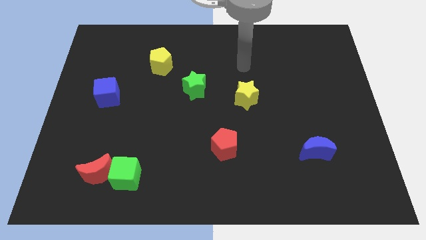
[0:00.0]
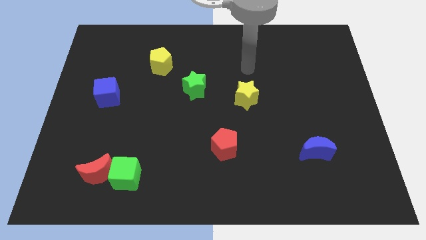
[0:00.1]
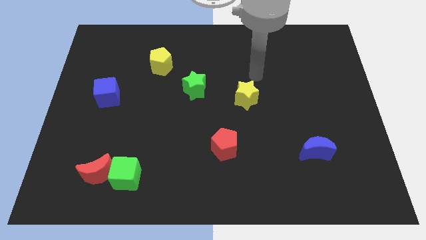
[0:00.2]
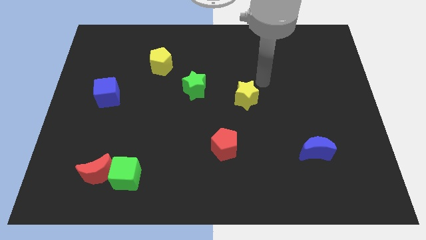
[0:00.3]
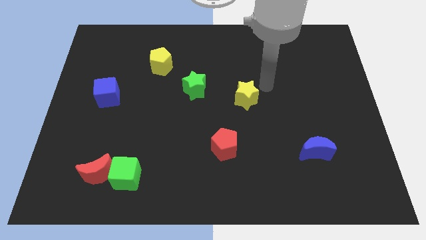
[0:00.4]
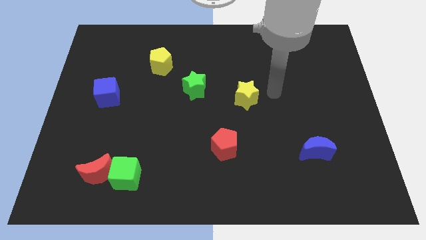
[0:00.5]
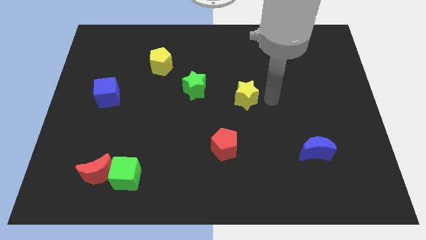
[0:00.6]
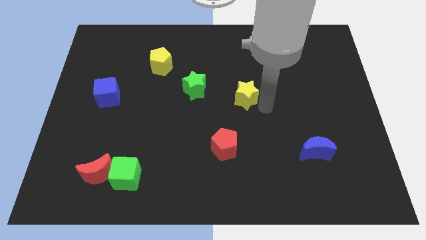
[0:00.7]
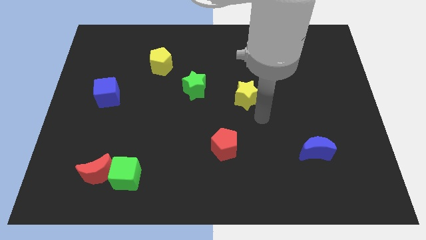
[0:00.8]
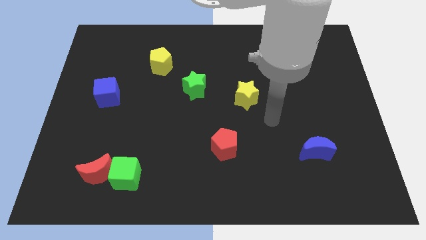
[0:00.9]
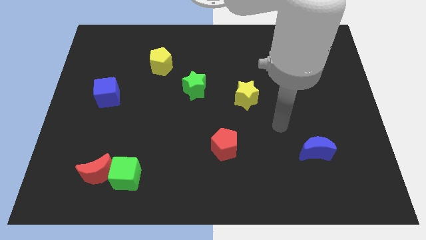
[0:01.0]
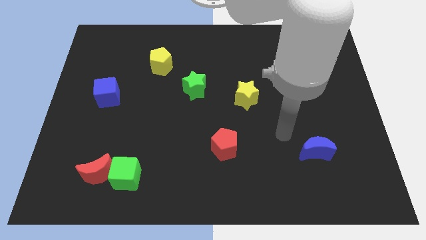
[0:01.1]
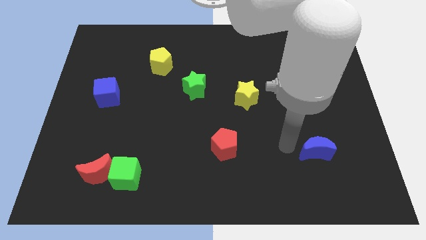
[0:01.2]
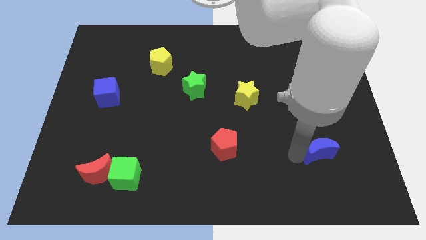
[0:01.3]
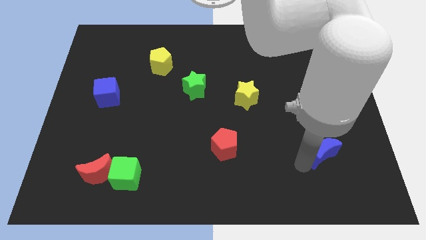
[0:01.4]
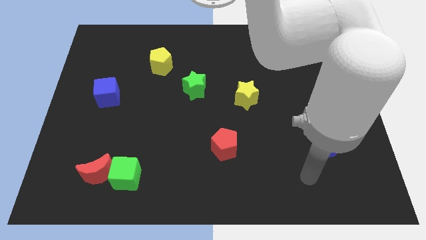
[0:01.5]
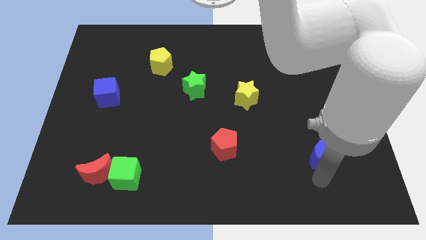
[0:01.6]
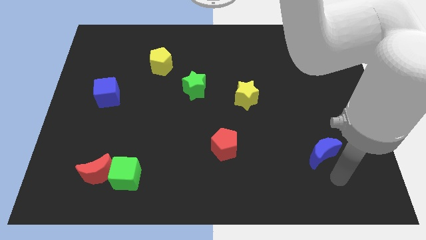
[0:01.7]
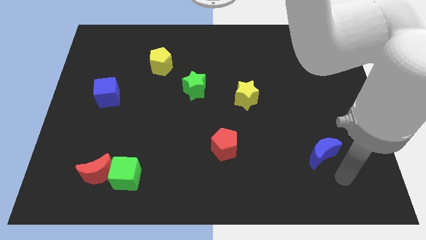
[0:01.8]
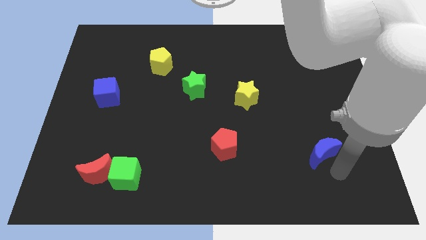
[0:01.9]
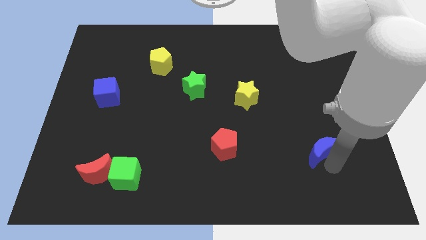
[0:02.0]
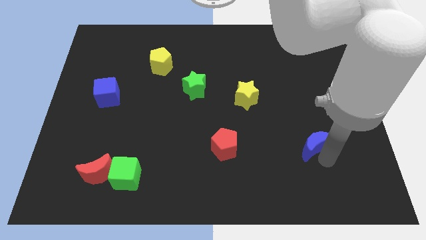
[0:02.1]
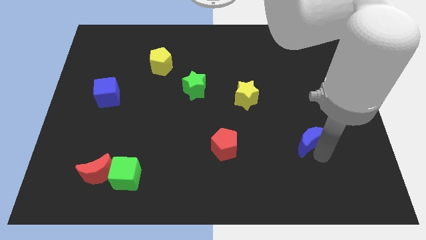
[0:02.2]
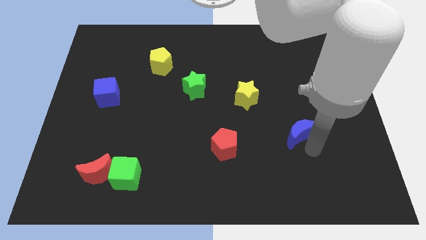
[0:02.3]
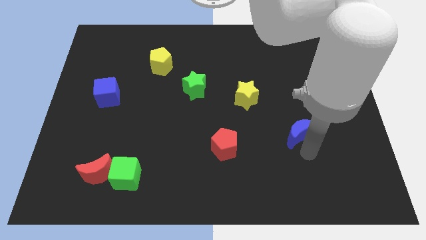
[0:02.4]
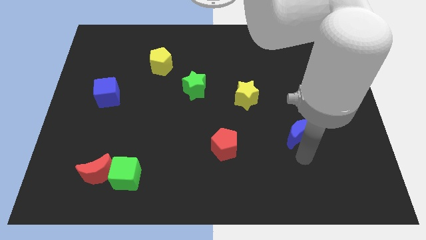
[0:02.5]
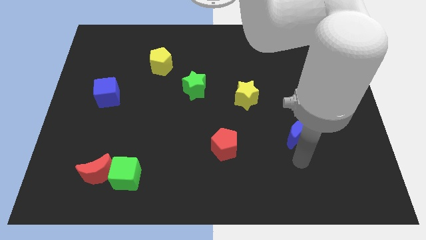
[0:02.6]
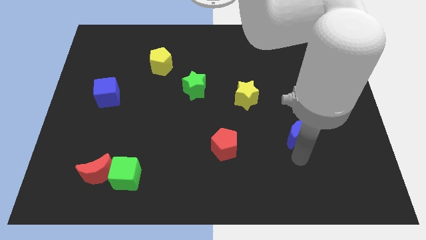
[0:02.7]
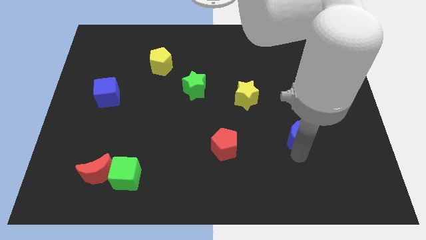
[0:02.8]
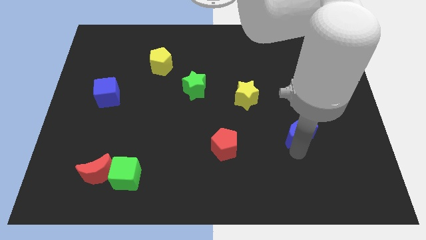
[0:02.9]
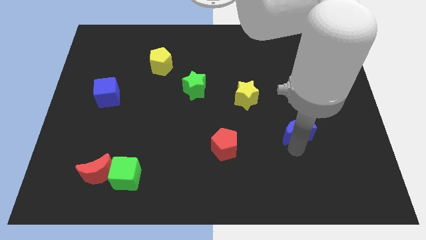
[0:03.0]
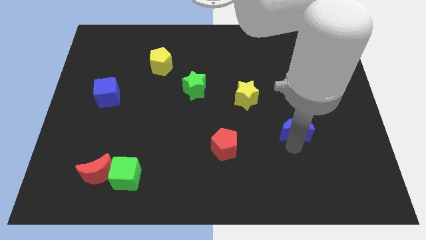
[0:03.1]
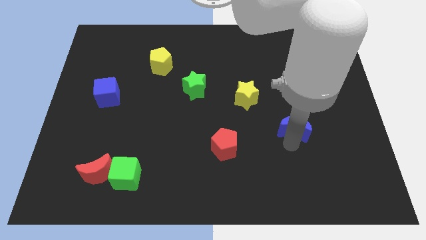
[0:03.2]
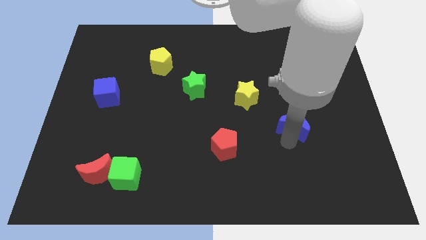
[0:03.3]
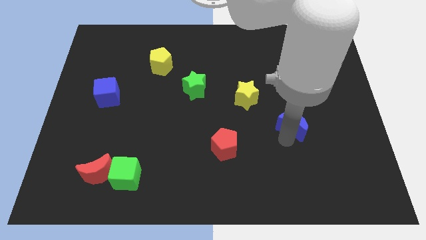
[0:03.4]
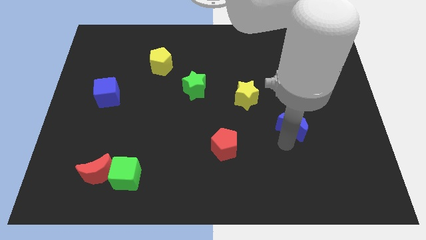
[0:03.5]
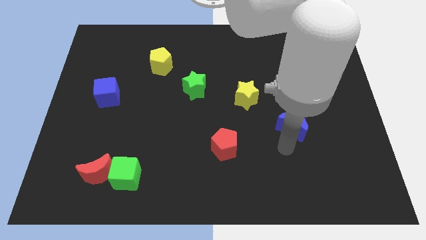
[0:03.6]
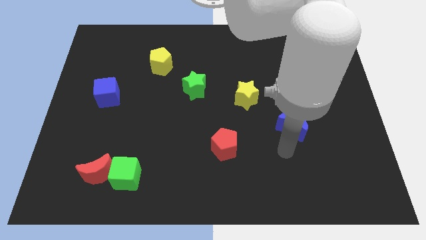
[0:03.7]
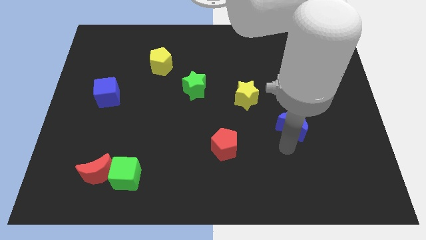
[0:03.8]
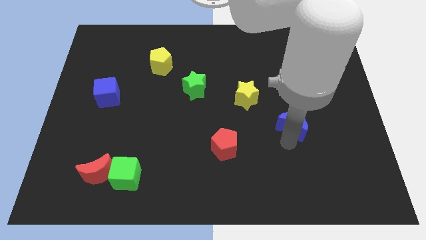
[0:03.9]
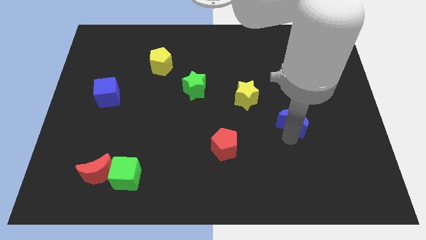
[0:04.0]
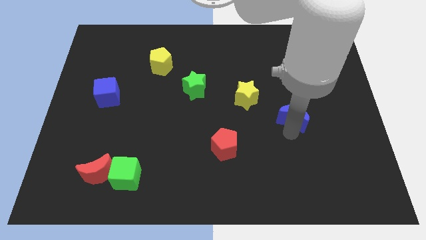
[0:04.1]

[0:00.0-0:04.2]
move the blue moon up somewhat

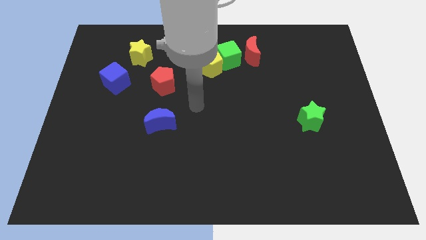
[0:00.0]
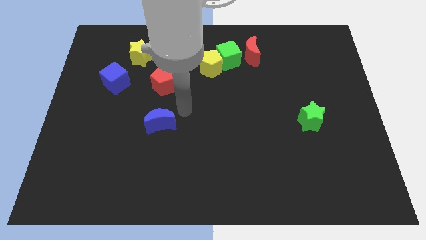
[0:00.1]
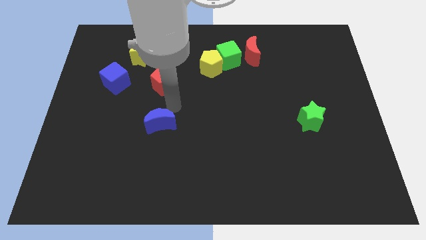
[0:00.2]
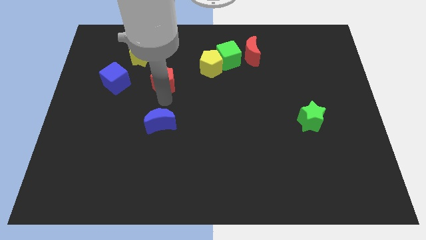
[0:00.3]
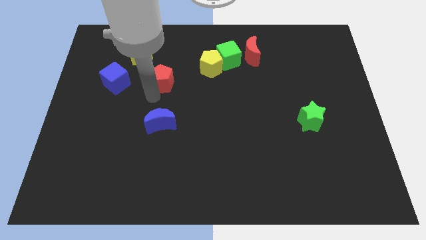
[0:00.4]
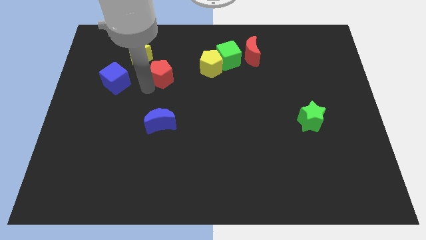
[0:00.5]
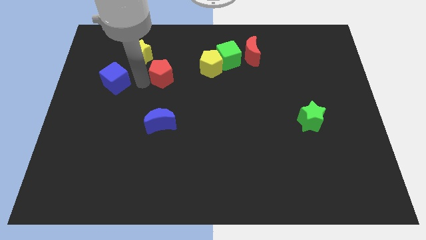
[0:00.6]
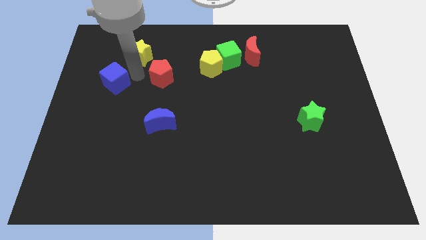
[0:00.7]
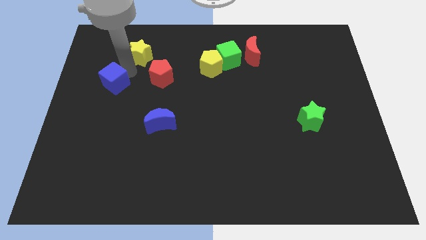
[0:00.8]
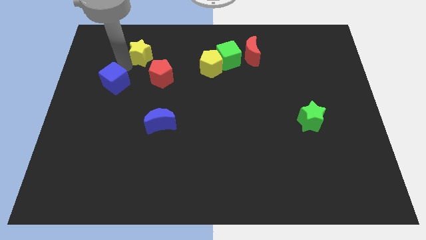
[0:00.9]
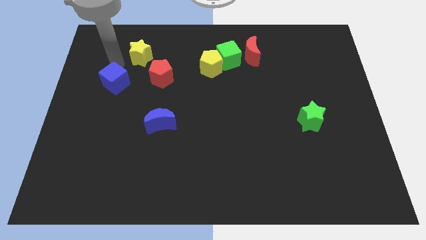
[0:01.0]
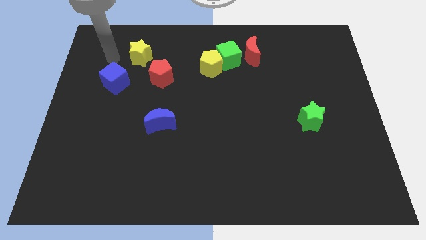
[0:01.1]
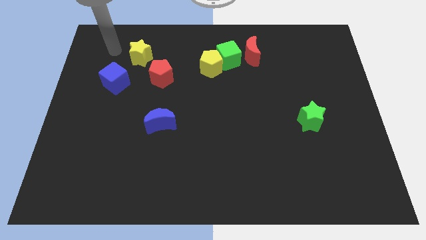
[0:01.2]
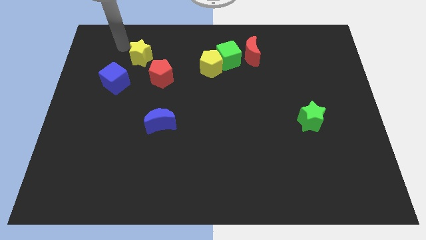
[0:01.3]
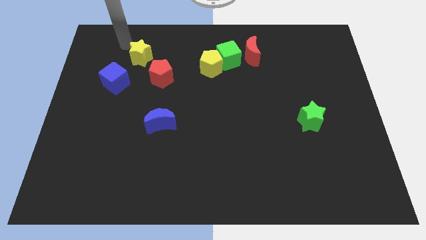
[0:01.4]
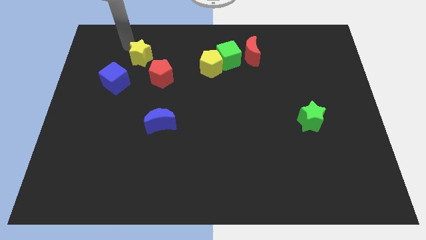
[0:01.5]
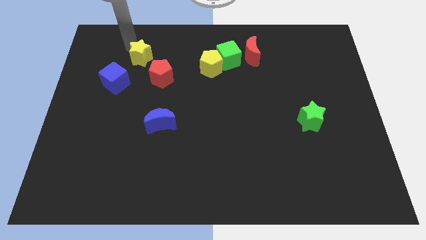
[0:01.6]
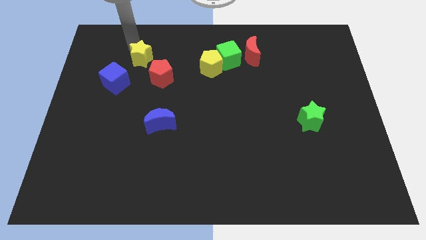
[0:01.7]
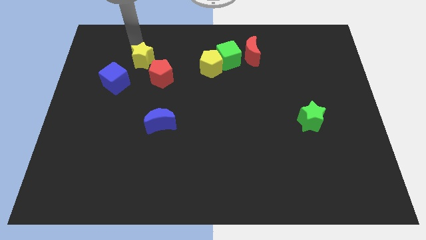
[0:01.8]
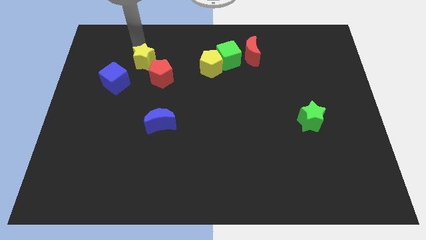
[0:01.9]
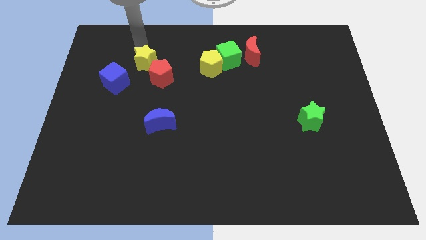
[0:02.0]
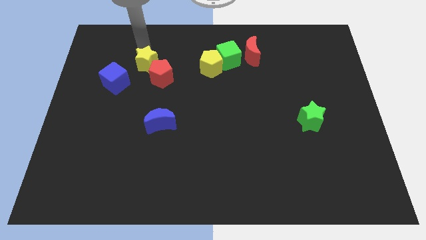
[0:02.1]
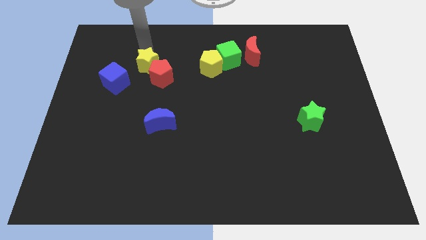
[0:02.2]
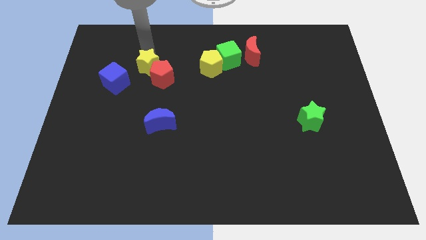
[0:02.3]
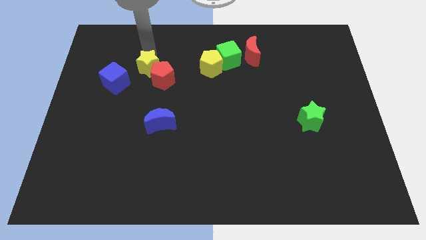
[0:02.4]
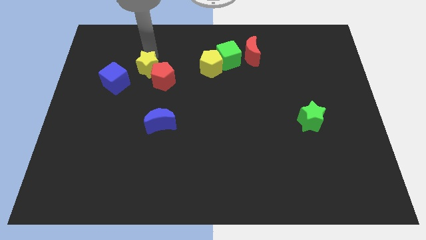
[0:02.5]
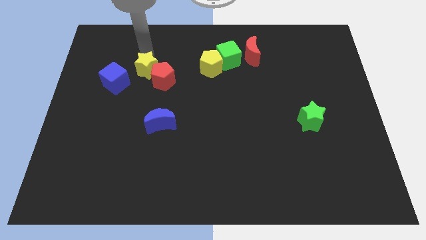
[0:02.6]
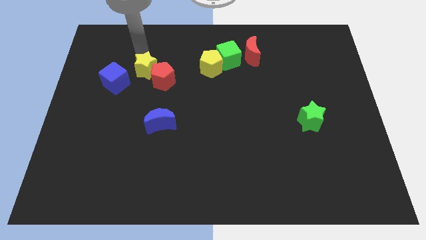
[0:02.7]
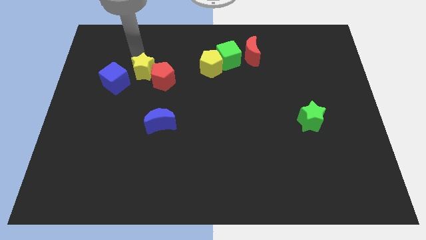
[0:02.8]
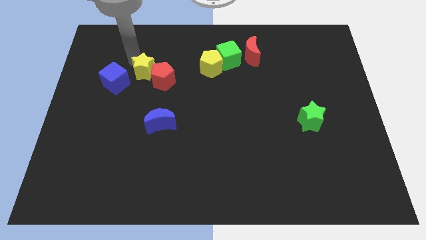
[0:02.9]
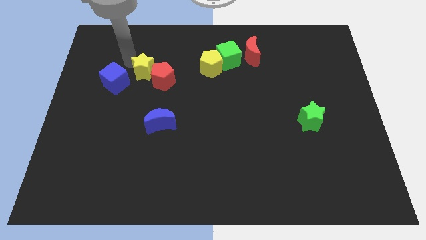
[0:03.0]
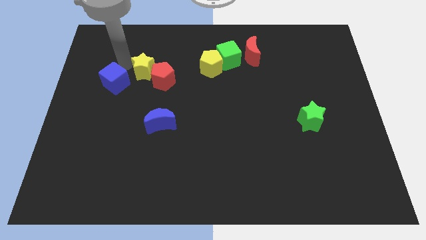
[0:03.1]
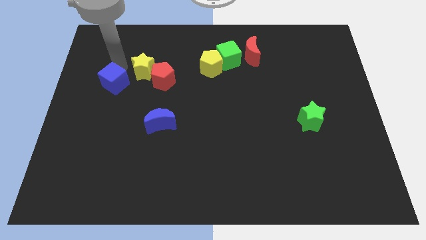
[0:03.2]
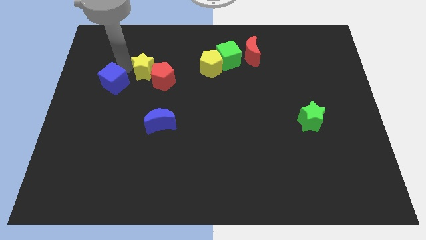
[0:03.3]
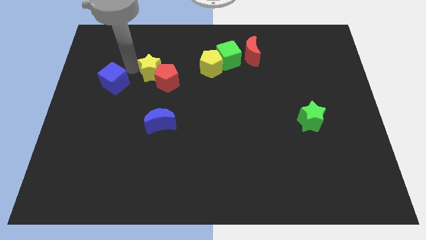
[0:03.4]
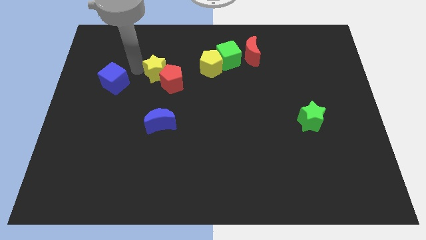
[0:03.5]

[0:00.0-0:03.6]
move the yellow star downwards and to the right diagonally a bit

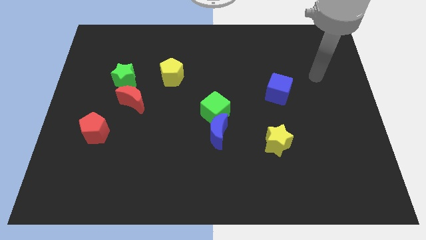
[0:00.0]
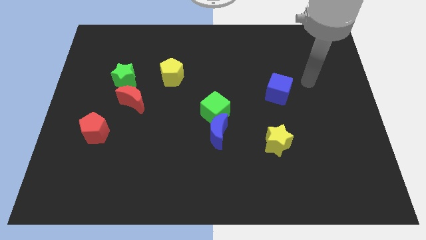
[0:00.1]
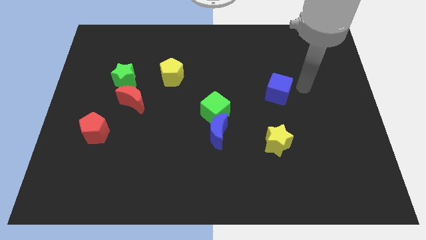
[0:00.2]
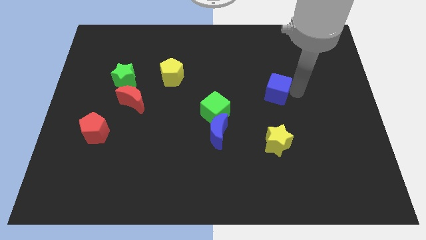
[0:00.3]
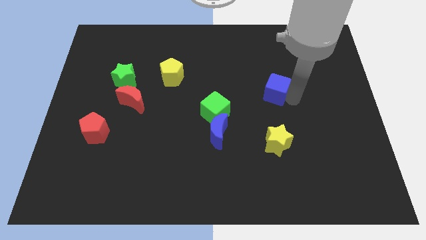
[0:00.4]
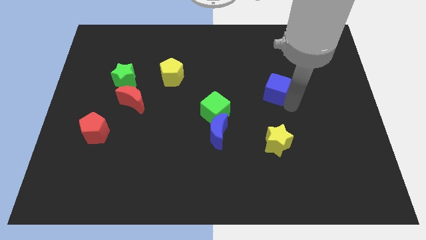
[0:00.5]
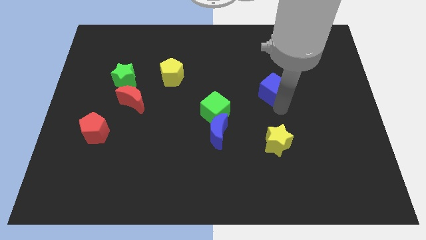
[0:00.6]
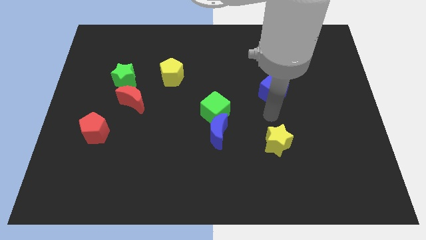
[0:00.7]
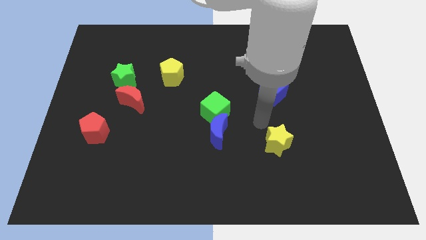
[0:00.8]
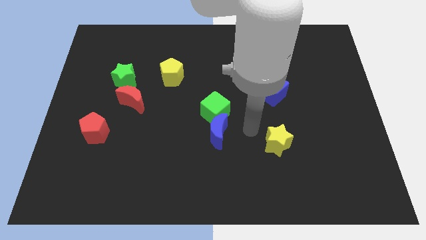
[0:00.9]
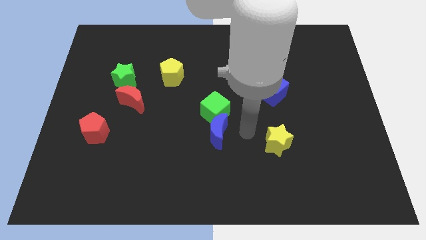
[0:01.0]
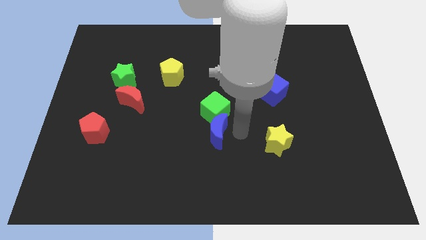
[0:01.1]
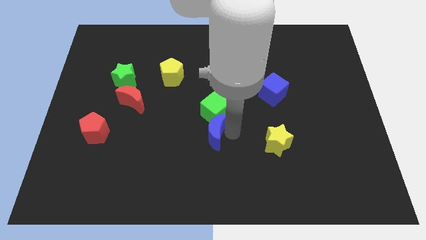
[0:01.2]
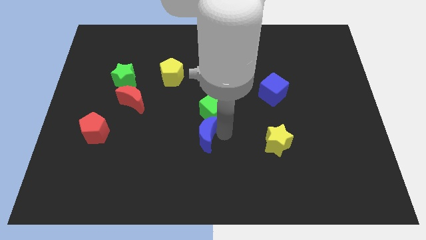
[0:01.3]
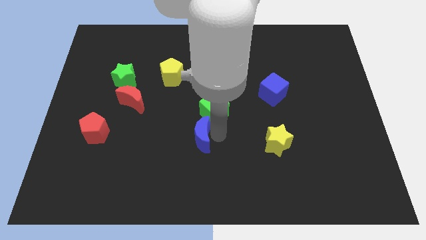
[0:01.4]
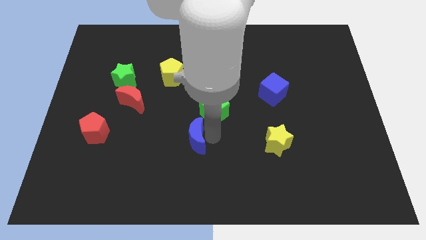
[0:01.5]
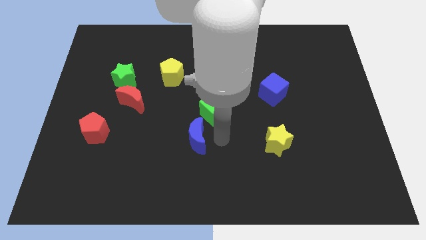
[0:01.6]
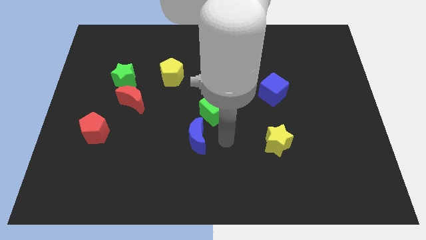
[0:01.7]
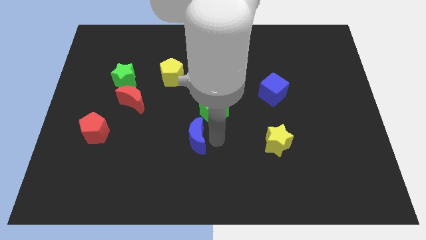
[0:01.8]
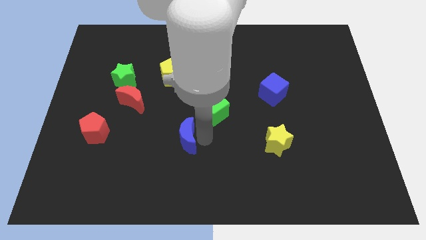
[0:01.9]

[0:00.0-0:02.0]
move the blue moon left a little
